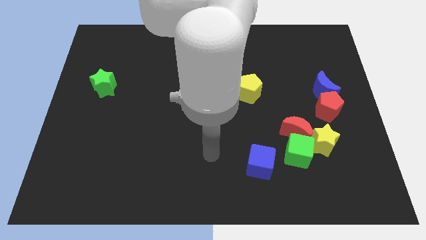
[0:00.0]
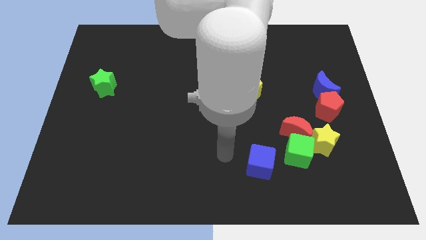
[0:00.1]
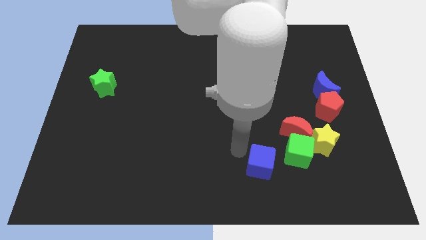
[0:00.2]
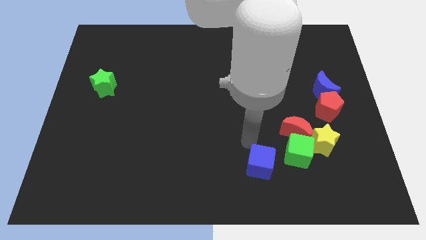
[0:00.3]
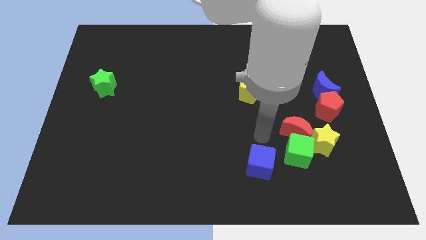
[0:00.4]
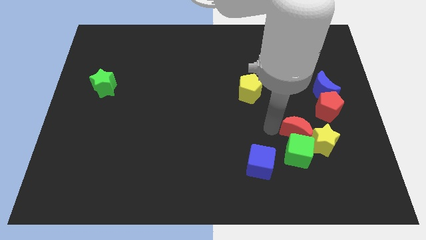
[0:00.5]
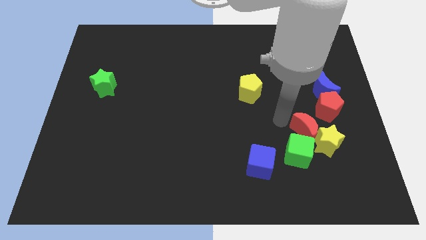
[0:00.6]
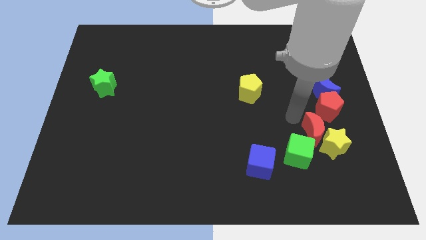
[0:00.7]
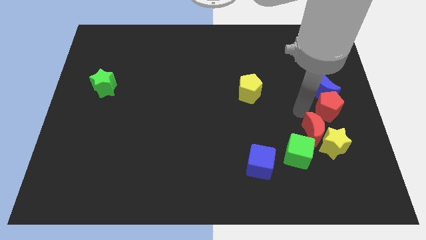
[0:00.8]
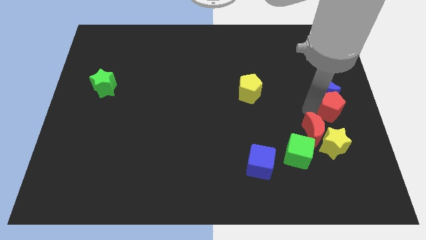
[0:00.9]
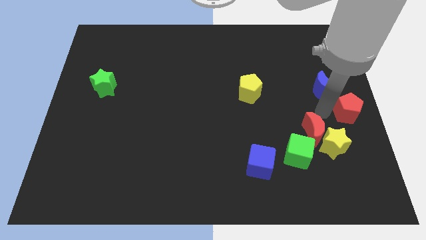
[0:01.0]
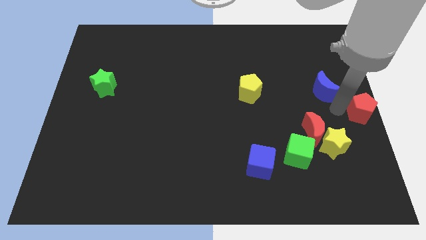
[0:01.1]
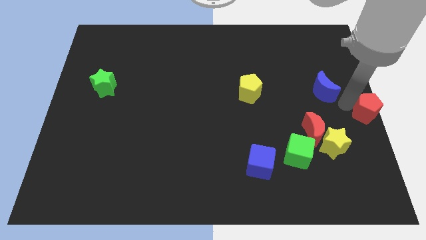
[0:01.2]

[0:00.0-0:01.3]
move the blue moon away from the red pentagon

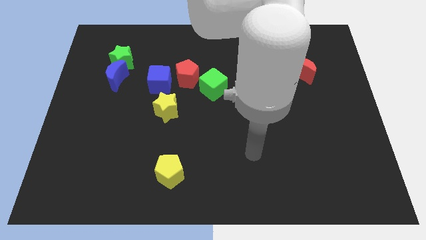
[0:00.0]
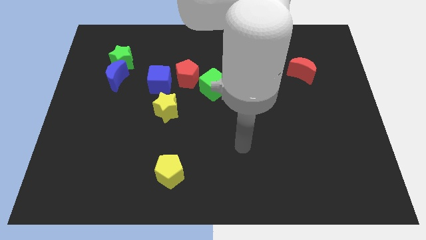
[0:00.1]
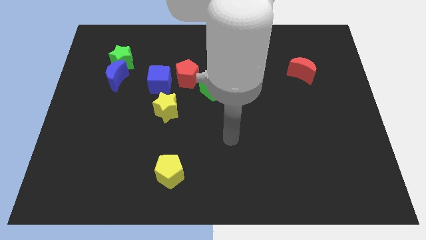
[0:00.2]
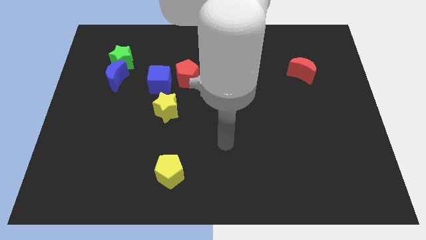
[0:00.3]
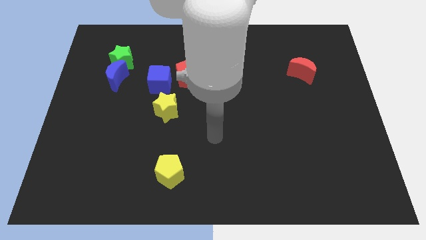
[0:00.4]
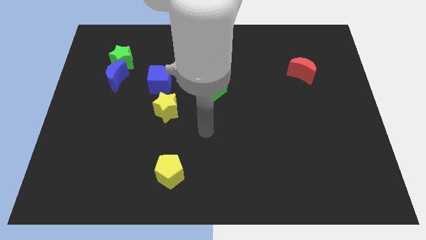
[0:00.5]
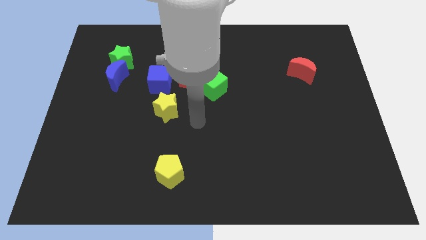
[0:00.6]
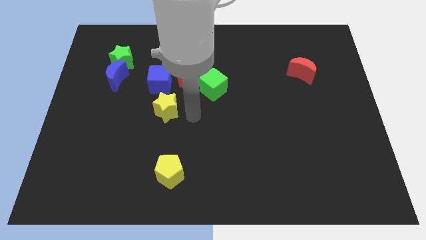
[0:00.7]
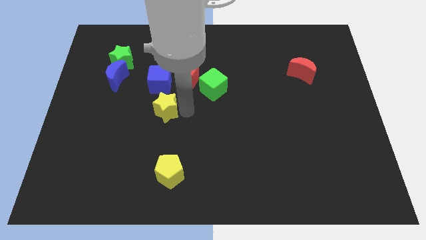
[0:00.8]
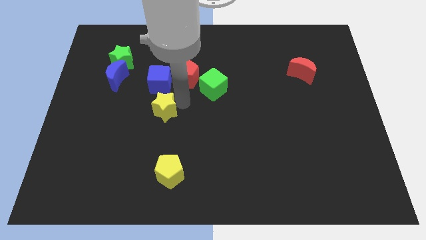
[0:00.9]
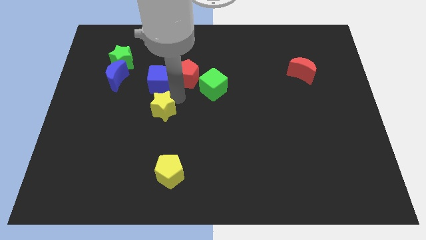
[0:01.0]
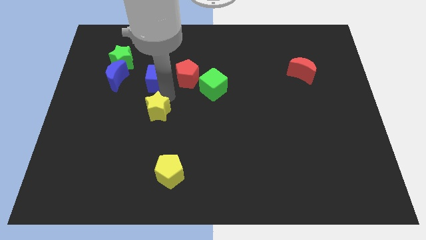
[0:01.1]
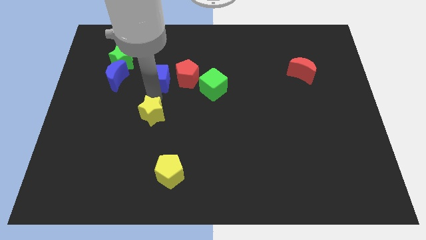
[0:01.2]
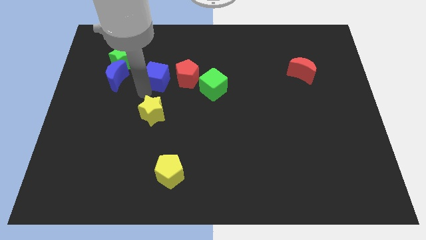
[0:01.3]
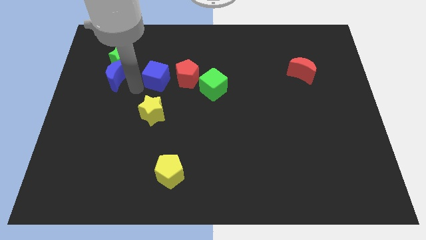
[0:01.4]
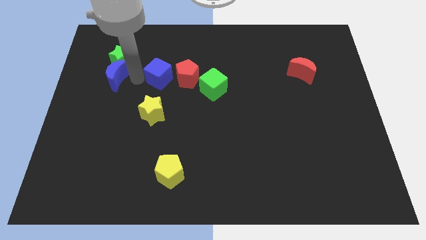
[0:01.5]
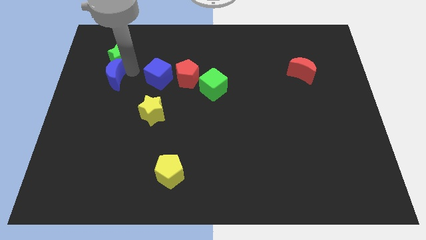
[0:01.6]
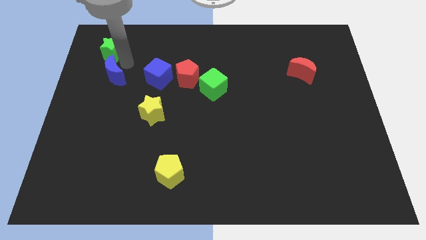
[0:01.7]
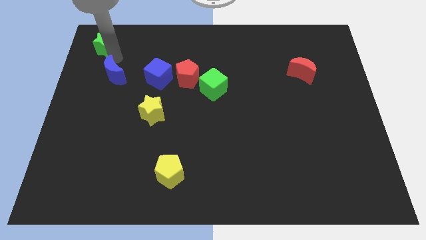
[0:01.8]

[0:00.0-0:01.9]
move the blue moon away from the green star

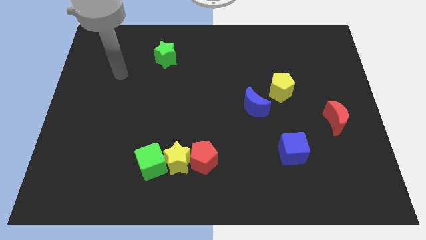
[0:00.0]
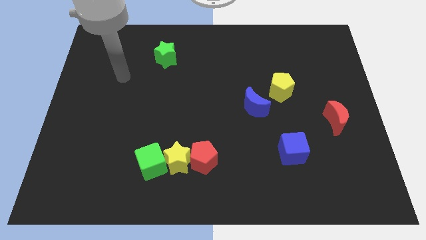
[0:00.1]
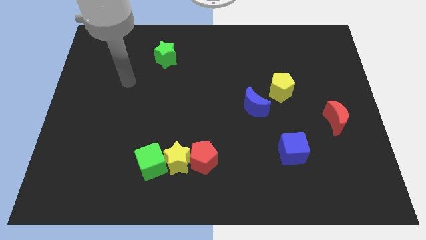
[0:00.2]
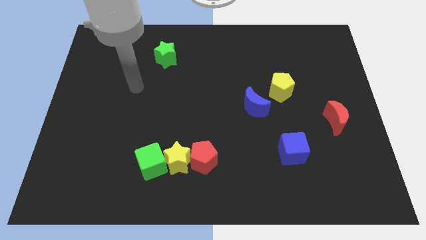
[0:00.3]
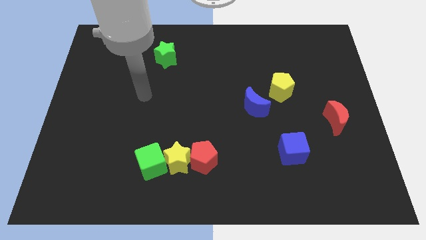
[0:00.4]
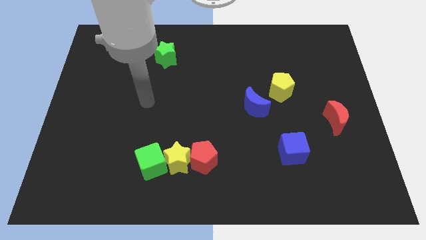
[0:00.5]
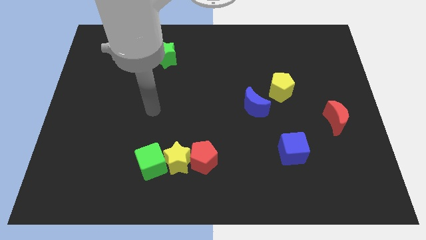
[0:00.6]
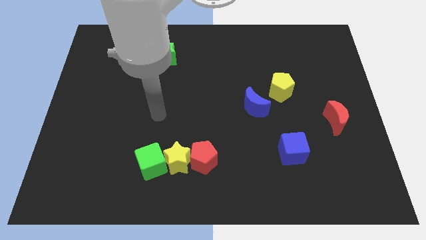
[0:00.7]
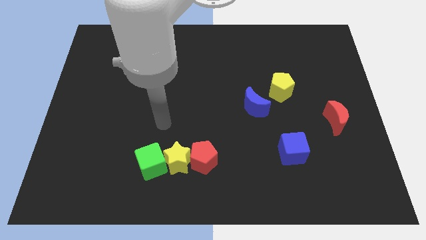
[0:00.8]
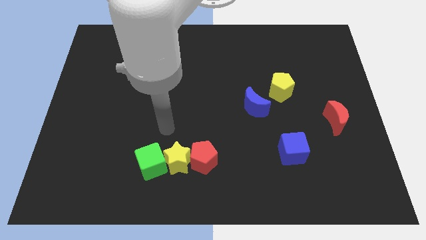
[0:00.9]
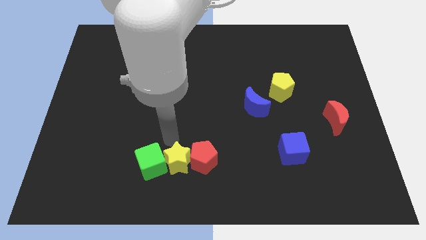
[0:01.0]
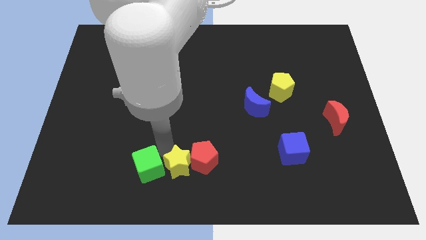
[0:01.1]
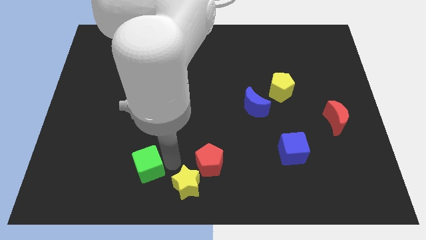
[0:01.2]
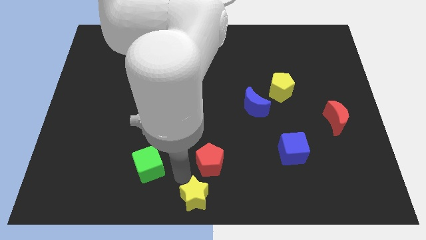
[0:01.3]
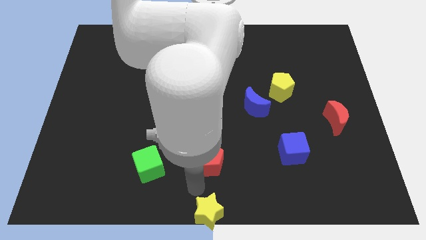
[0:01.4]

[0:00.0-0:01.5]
pull the red pentagon apart from the yellow star

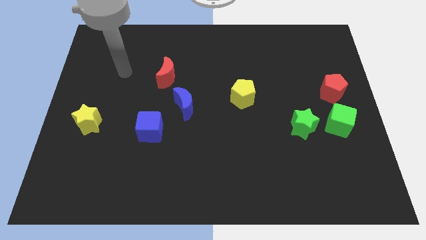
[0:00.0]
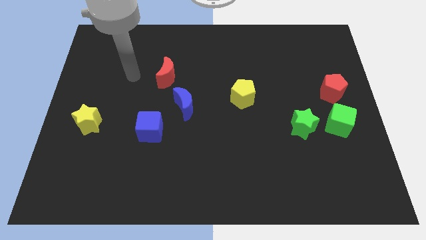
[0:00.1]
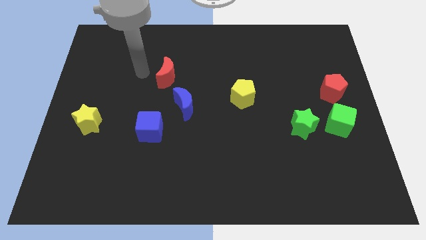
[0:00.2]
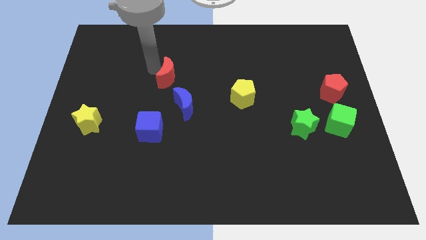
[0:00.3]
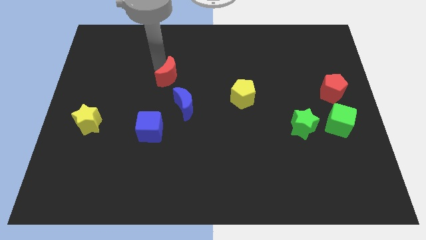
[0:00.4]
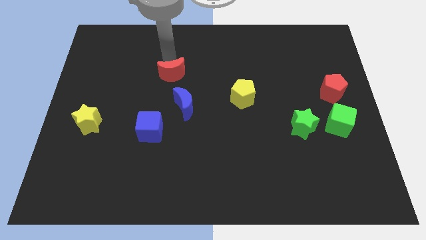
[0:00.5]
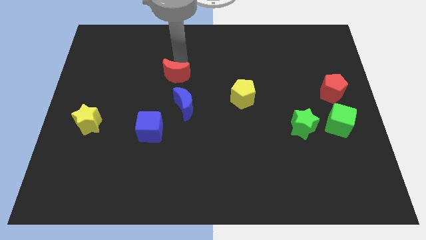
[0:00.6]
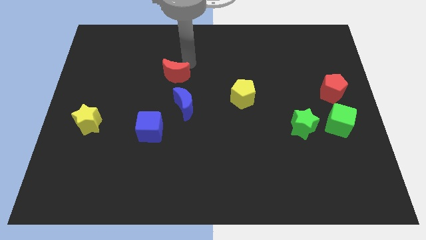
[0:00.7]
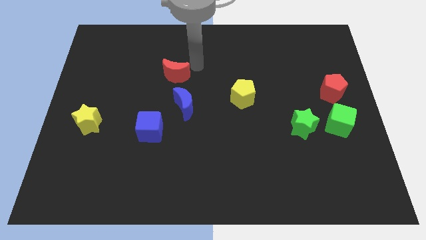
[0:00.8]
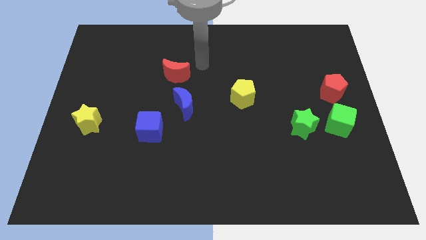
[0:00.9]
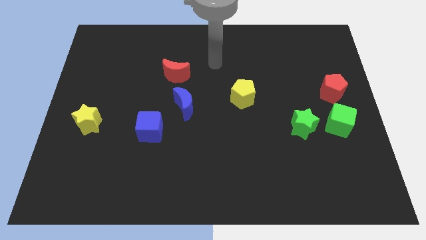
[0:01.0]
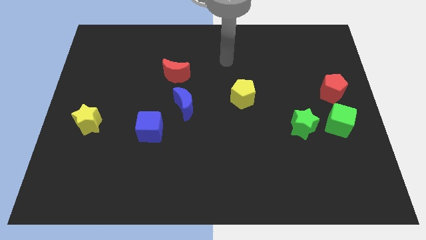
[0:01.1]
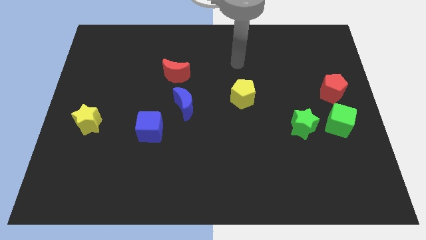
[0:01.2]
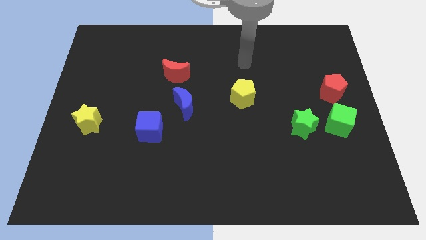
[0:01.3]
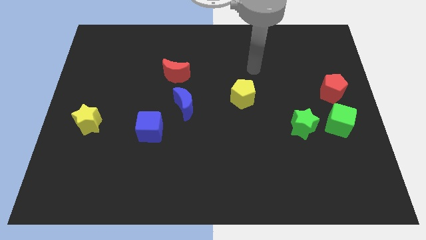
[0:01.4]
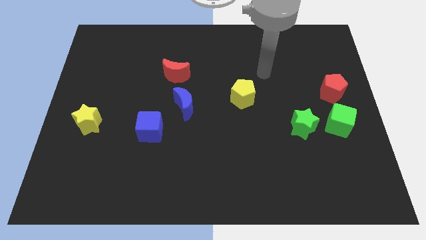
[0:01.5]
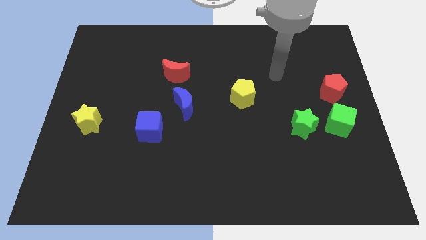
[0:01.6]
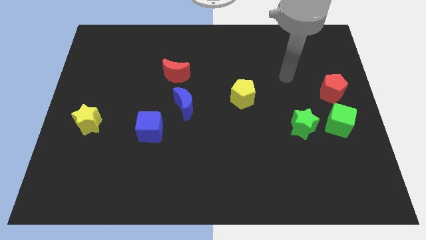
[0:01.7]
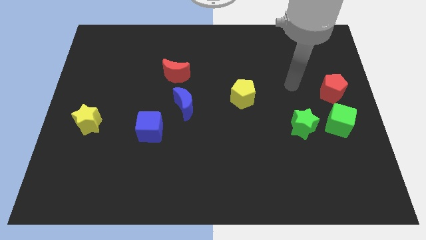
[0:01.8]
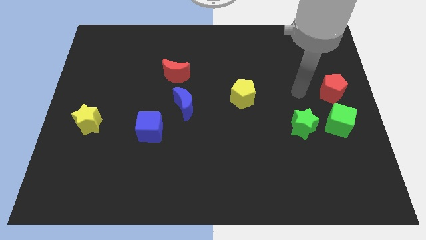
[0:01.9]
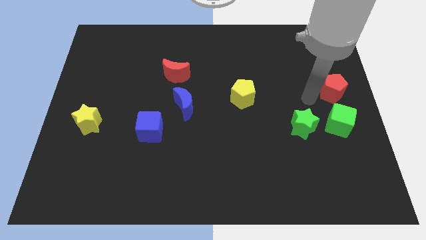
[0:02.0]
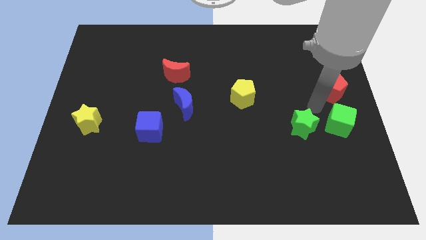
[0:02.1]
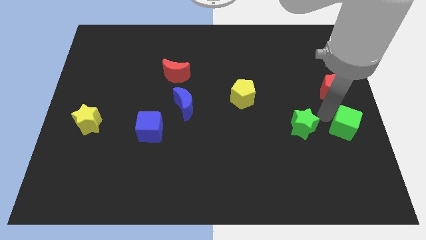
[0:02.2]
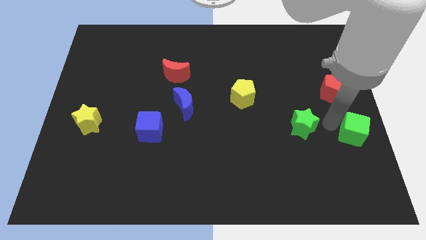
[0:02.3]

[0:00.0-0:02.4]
move the green star away from the green cube

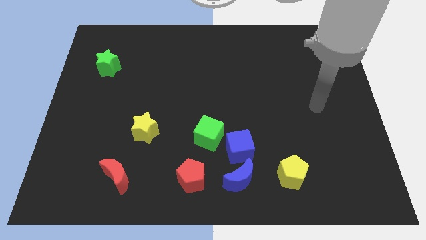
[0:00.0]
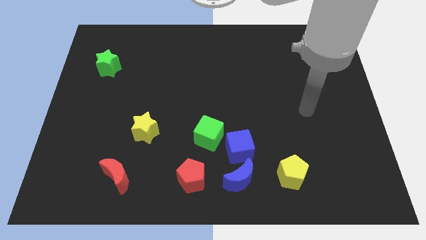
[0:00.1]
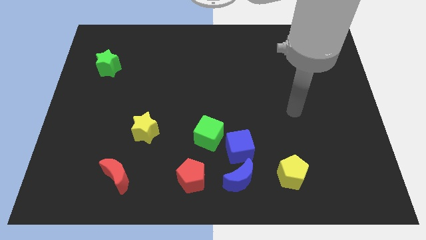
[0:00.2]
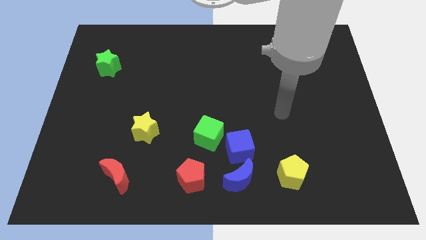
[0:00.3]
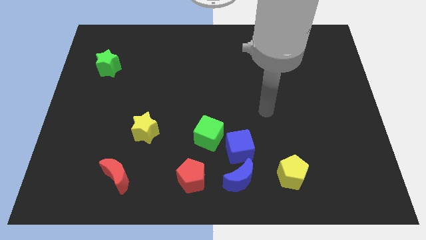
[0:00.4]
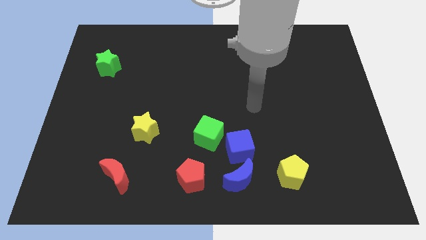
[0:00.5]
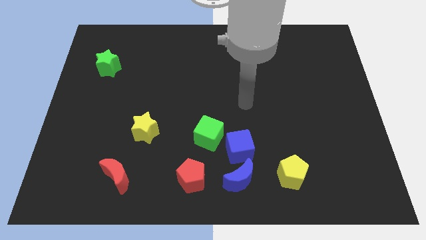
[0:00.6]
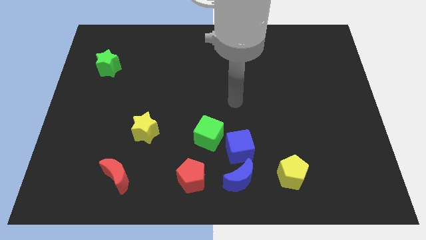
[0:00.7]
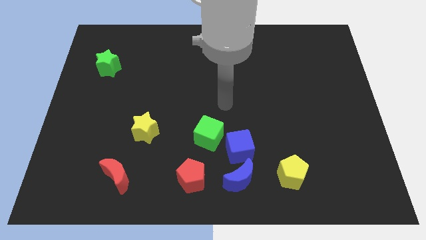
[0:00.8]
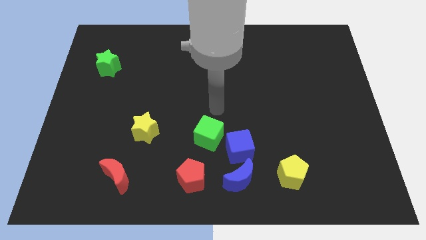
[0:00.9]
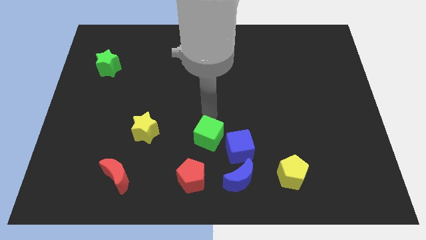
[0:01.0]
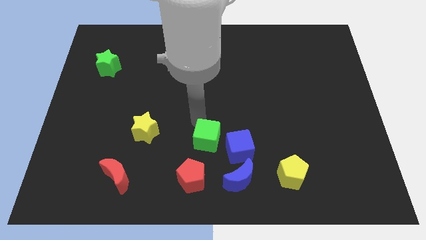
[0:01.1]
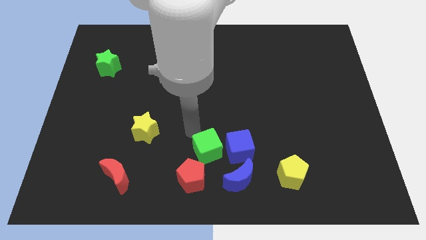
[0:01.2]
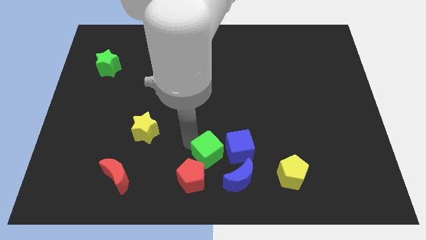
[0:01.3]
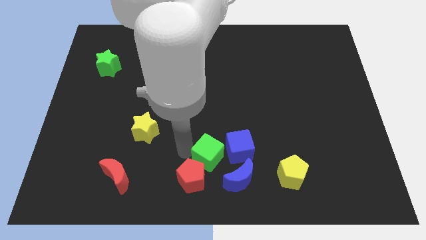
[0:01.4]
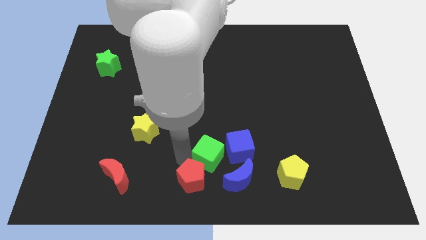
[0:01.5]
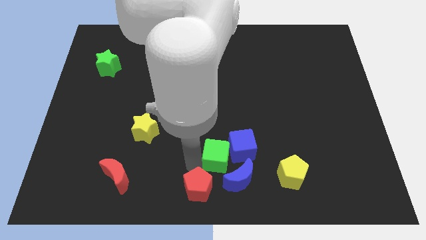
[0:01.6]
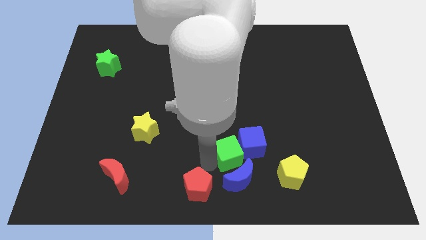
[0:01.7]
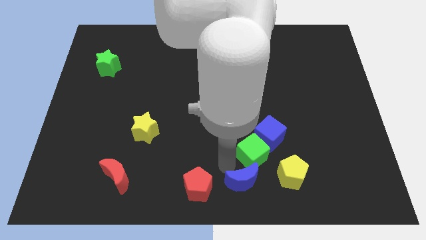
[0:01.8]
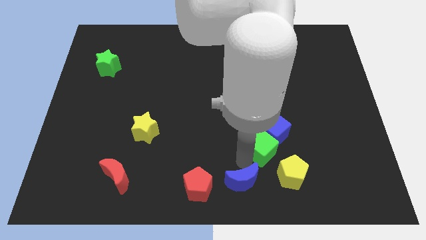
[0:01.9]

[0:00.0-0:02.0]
pull the blue cube apart from the blue moon and green cube

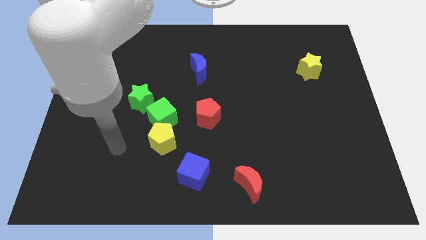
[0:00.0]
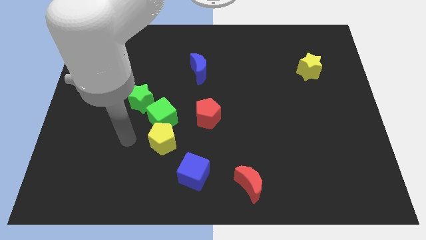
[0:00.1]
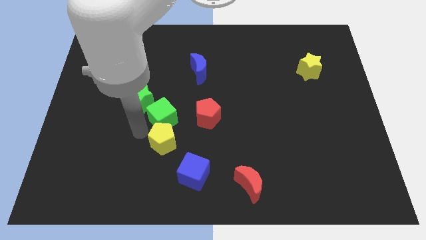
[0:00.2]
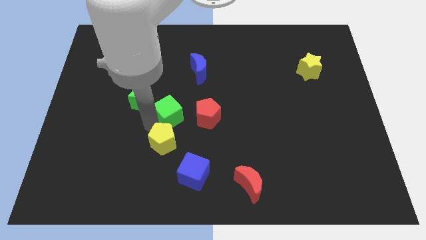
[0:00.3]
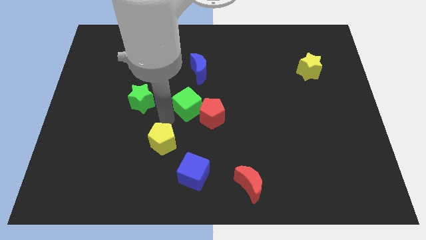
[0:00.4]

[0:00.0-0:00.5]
move the yellow pentagon away from the green cube
